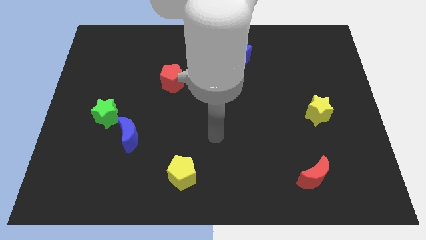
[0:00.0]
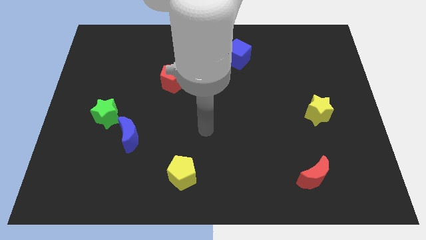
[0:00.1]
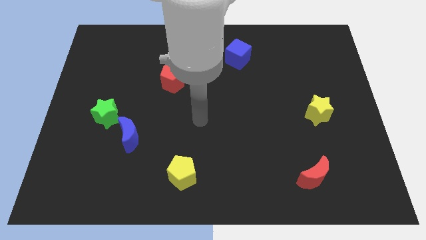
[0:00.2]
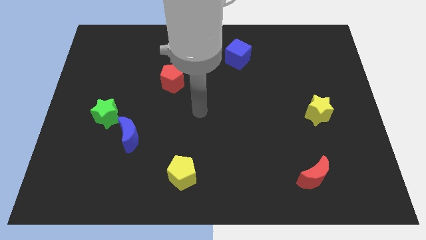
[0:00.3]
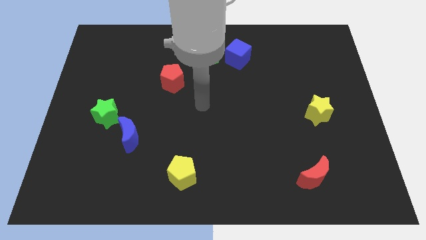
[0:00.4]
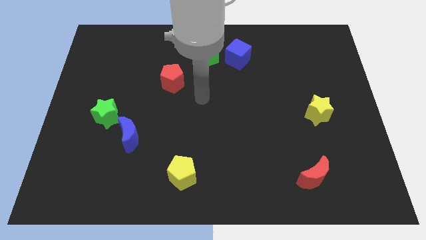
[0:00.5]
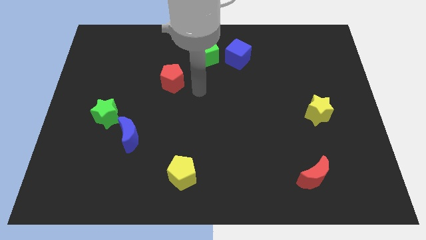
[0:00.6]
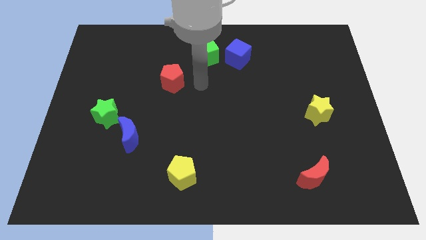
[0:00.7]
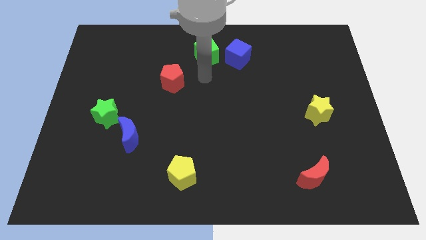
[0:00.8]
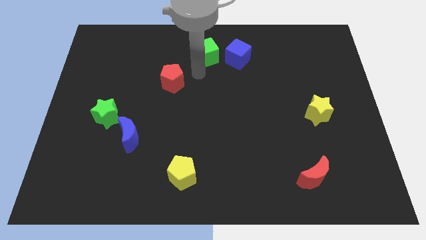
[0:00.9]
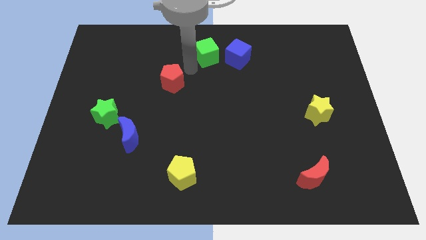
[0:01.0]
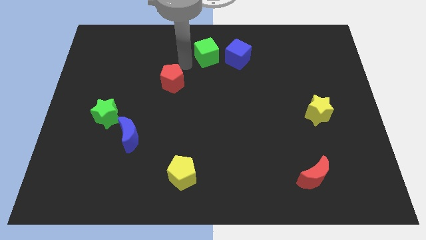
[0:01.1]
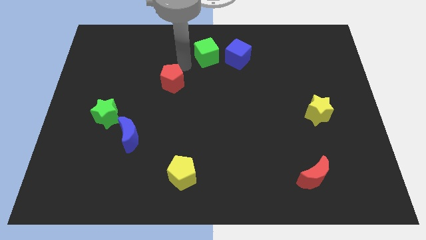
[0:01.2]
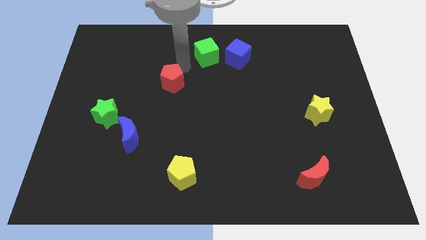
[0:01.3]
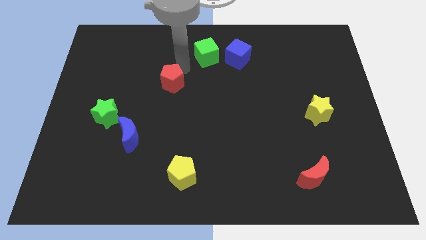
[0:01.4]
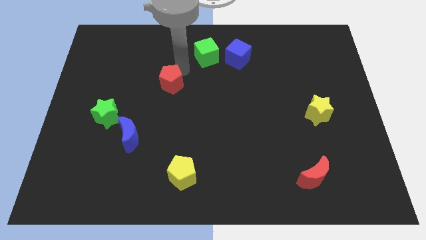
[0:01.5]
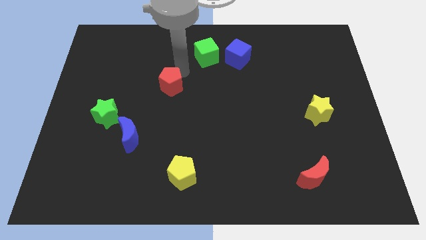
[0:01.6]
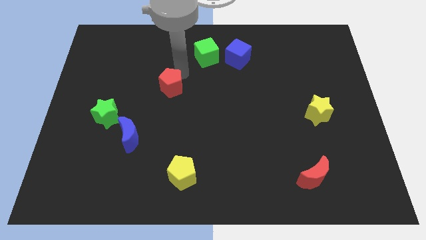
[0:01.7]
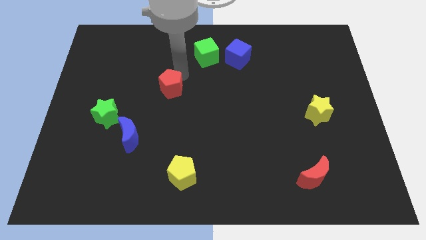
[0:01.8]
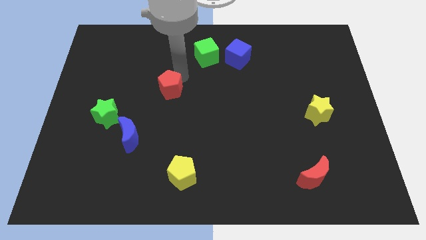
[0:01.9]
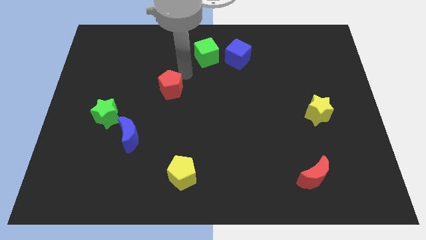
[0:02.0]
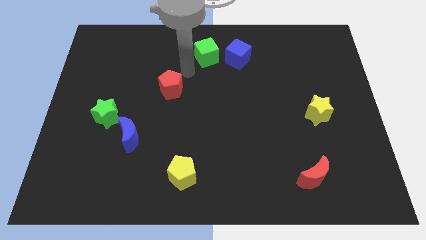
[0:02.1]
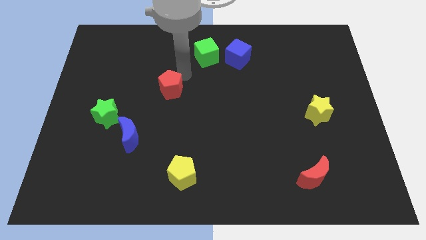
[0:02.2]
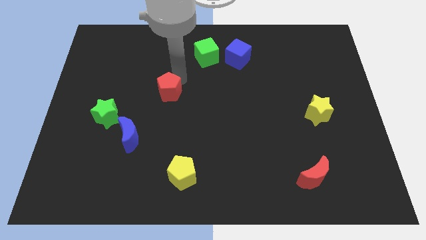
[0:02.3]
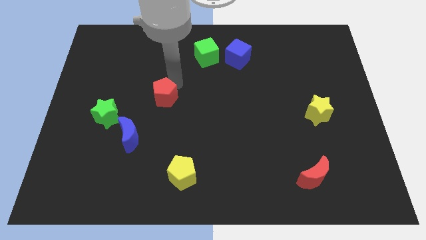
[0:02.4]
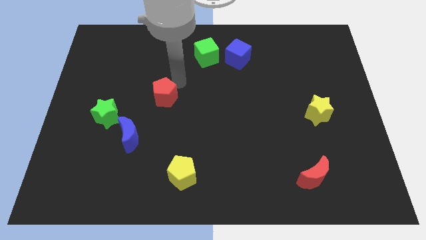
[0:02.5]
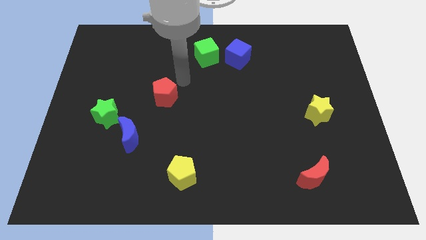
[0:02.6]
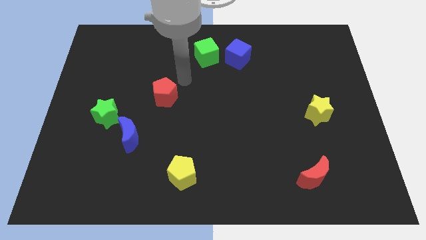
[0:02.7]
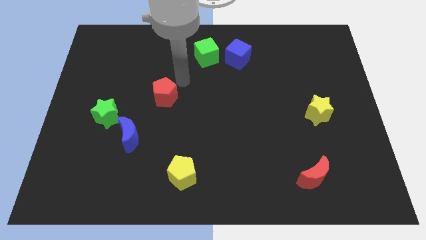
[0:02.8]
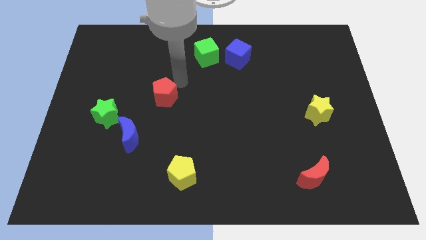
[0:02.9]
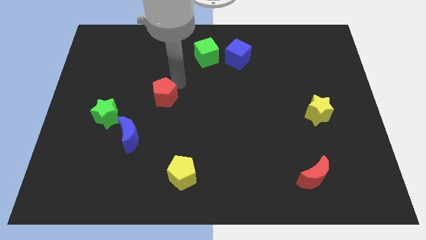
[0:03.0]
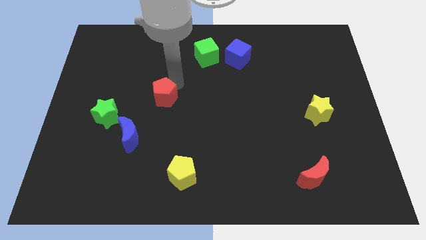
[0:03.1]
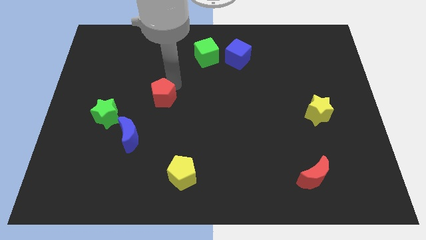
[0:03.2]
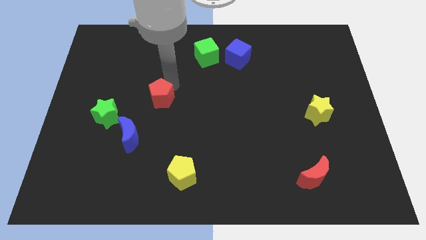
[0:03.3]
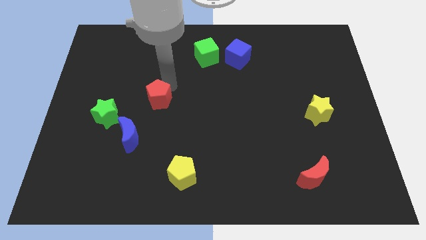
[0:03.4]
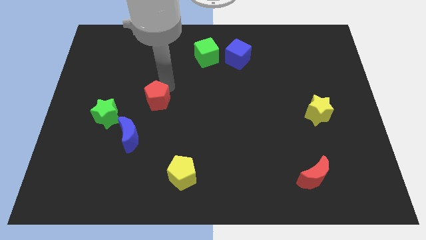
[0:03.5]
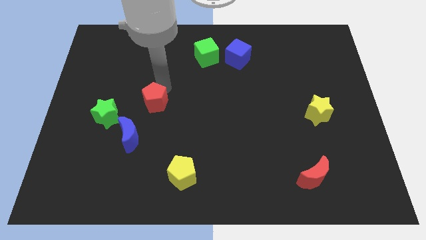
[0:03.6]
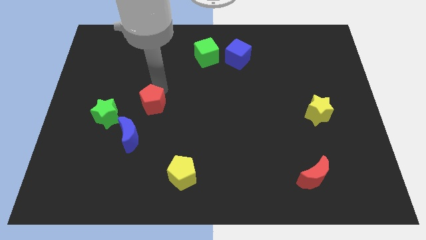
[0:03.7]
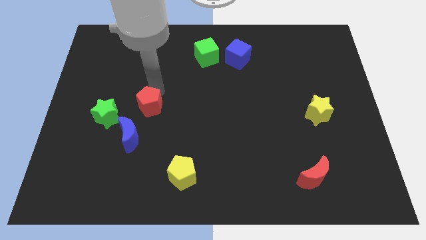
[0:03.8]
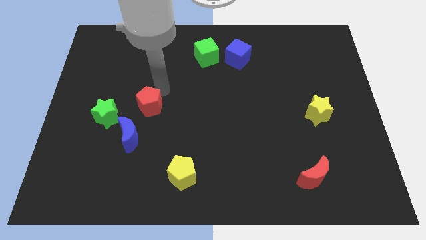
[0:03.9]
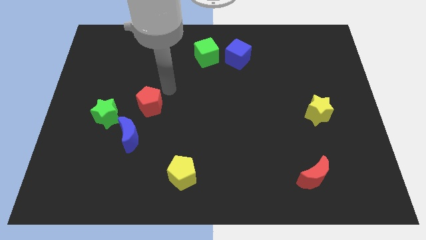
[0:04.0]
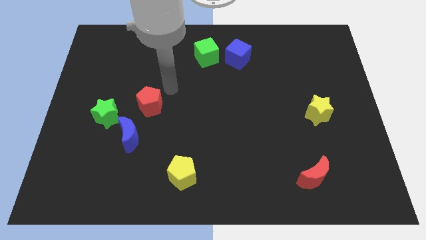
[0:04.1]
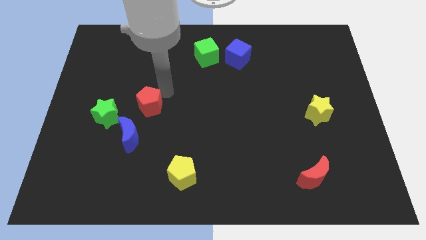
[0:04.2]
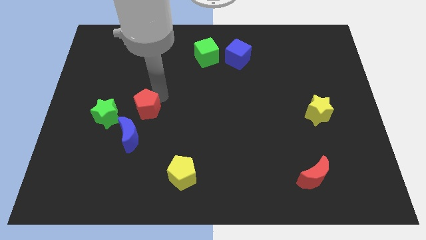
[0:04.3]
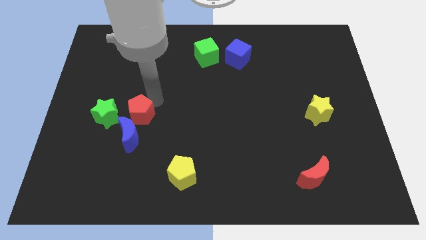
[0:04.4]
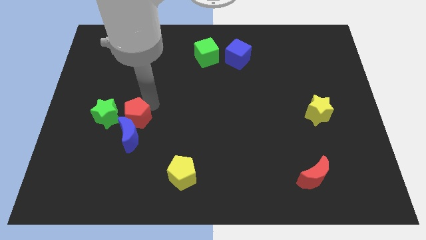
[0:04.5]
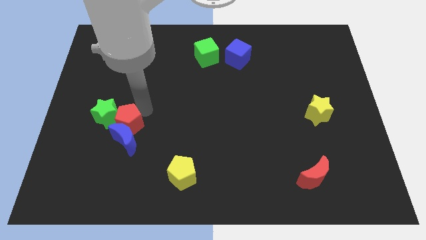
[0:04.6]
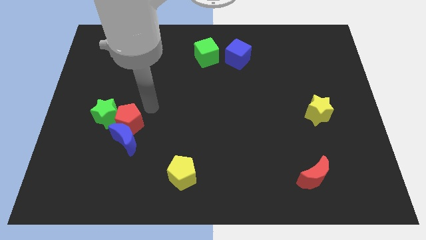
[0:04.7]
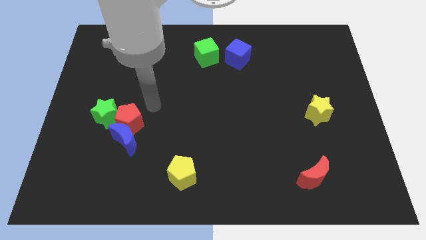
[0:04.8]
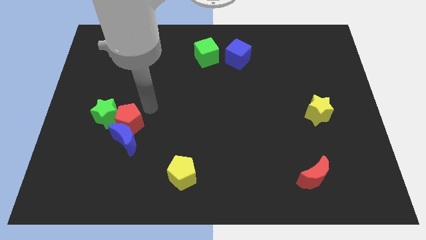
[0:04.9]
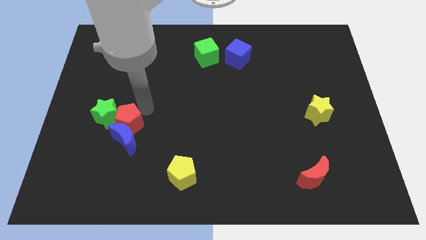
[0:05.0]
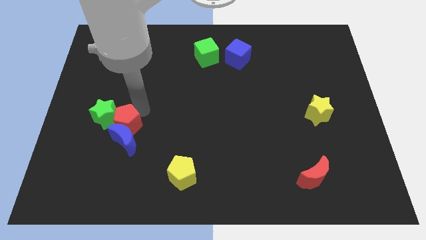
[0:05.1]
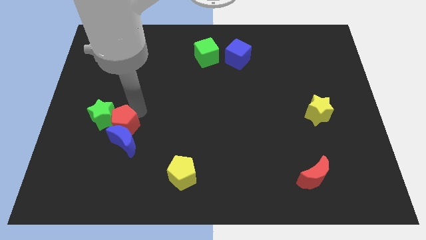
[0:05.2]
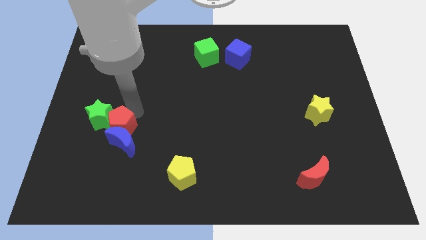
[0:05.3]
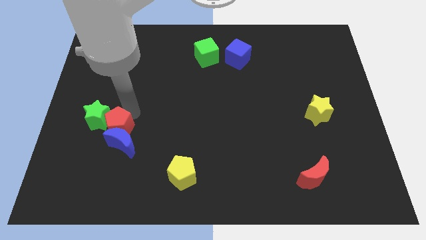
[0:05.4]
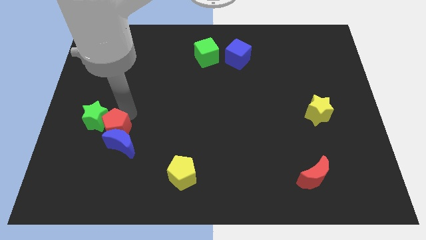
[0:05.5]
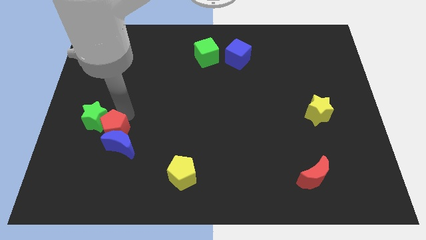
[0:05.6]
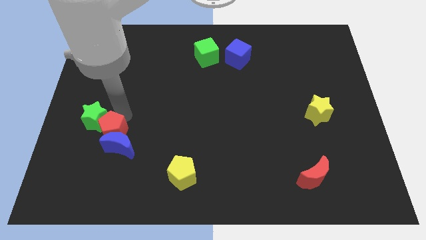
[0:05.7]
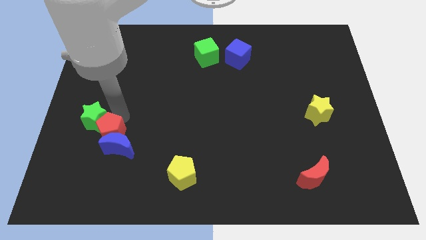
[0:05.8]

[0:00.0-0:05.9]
put the red pentagon just left of the blue moon

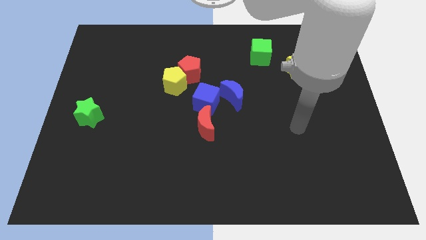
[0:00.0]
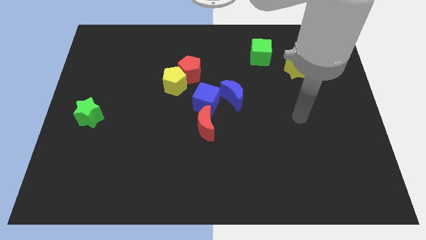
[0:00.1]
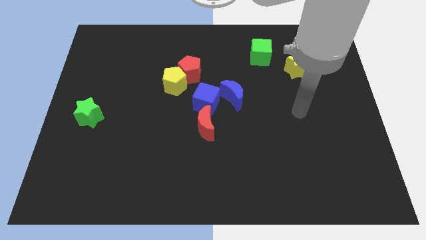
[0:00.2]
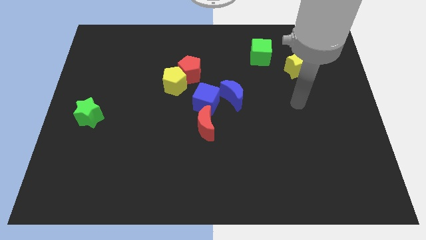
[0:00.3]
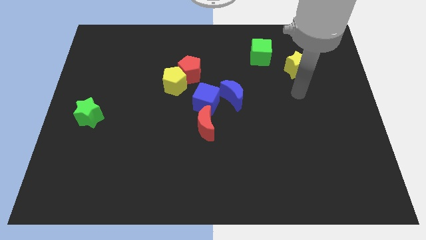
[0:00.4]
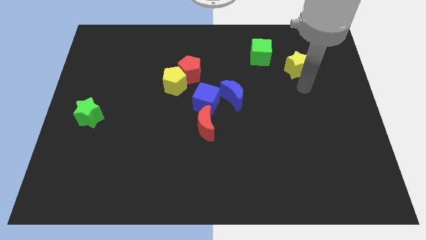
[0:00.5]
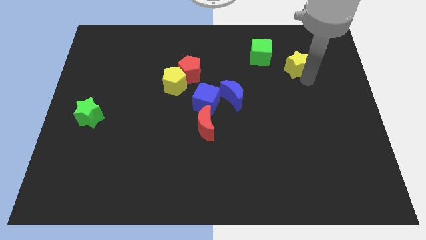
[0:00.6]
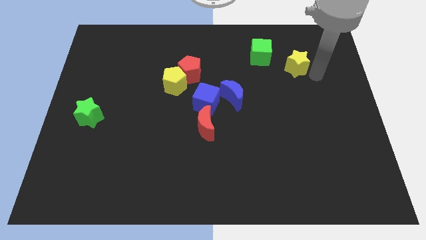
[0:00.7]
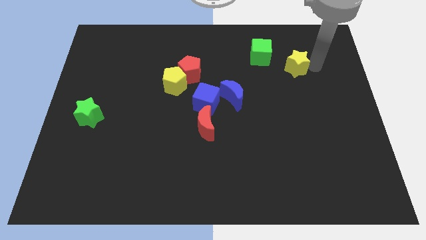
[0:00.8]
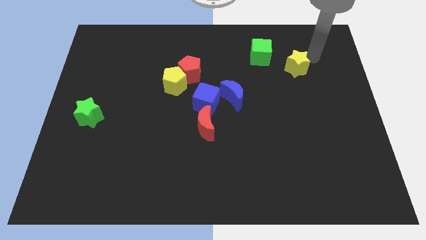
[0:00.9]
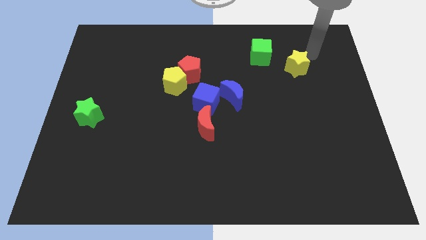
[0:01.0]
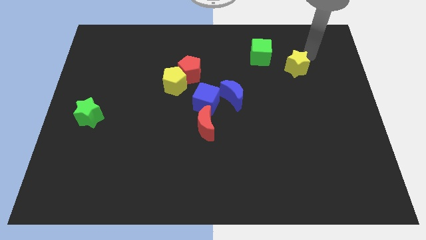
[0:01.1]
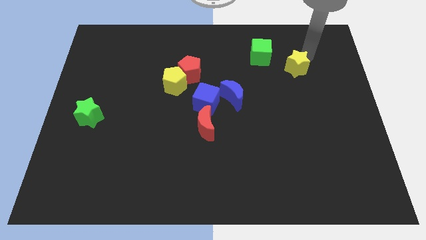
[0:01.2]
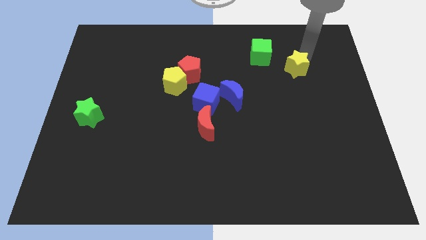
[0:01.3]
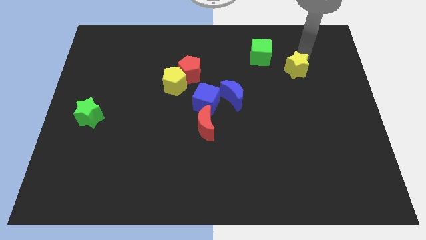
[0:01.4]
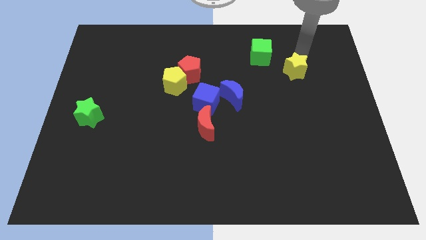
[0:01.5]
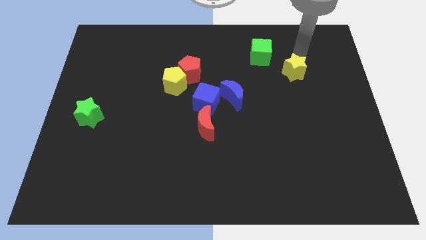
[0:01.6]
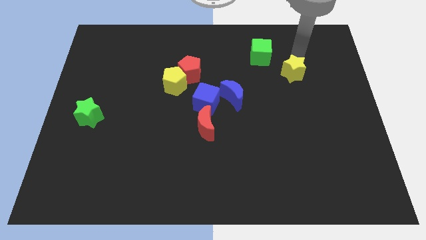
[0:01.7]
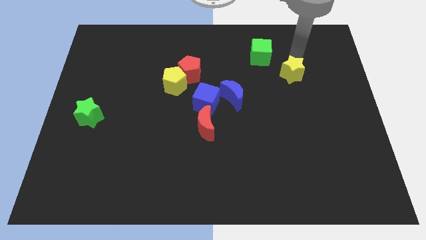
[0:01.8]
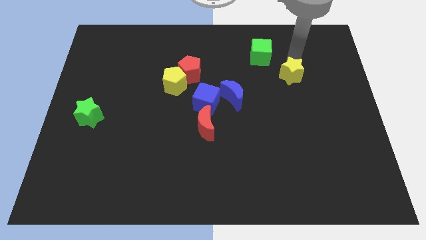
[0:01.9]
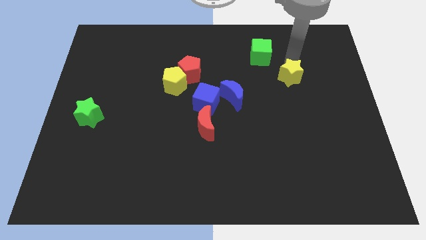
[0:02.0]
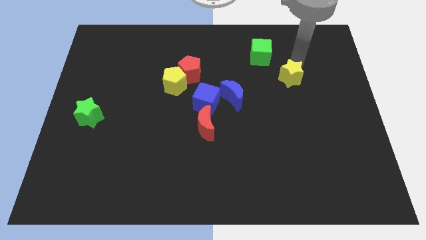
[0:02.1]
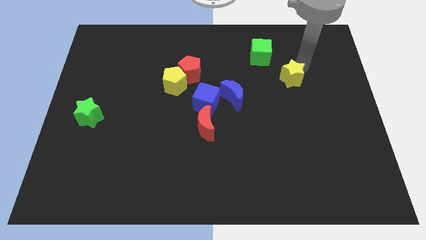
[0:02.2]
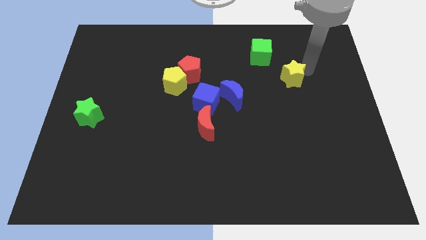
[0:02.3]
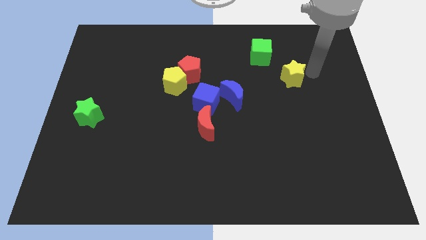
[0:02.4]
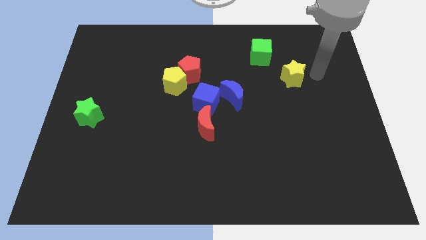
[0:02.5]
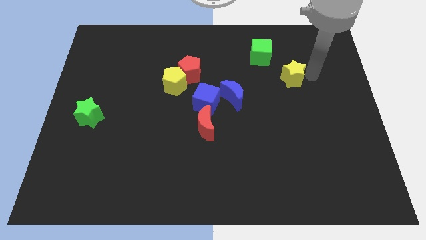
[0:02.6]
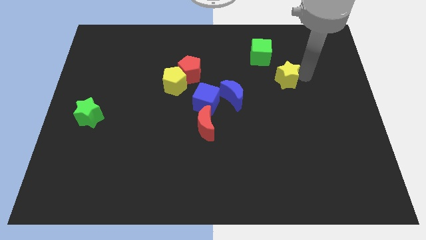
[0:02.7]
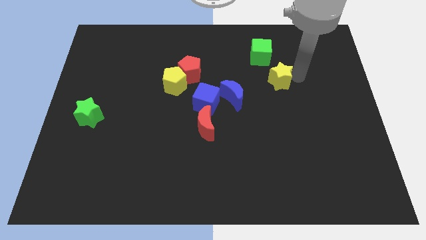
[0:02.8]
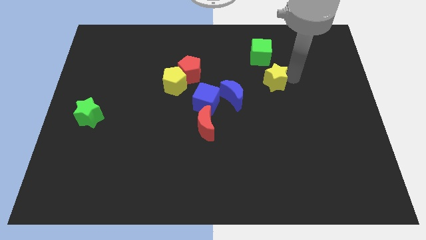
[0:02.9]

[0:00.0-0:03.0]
push the yellow star to the top right of the blue moon
